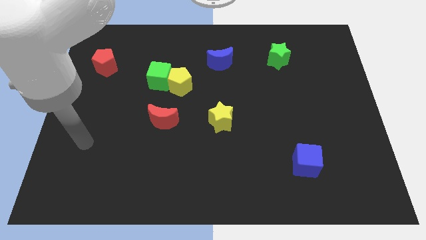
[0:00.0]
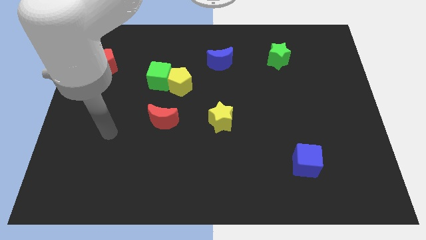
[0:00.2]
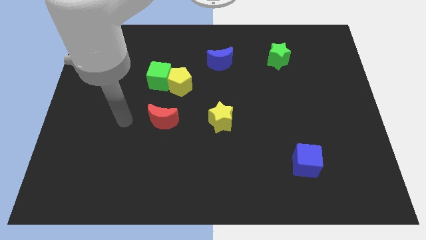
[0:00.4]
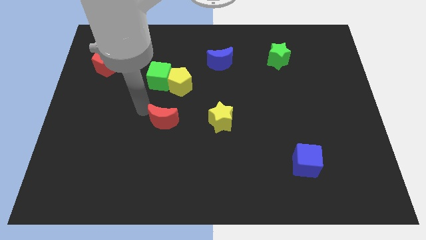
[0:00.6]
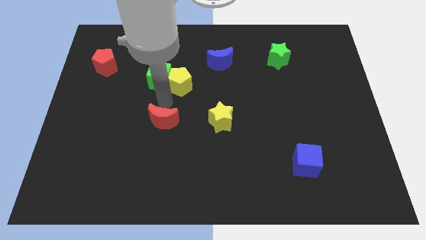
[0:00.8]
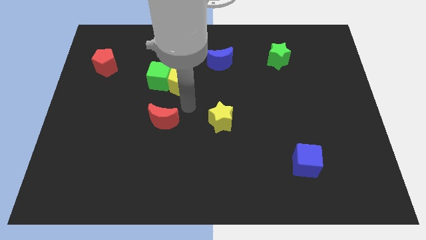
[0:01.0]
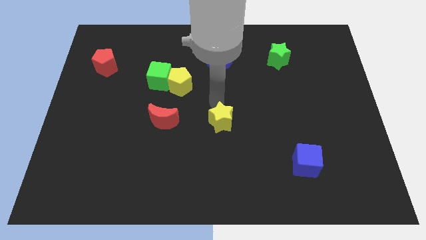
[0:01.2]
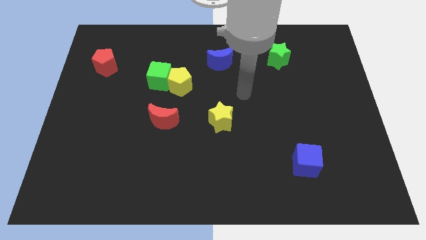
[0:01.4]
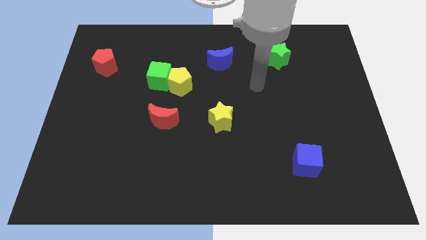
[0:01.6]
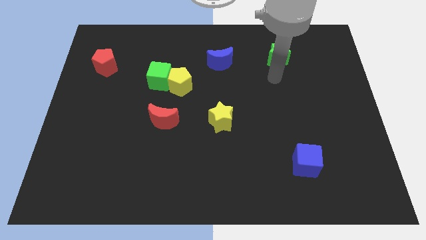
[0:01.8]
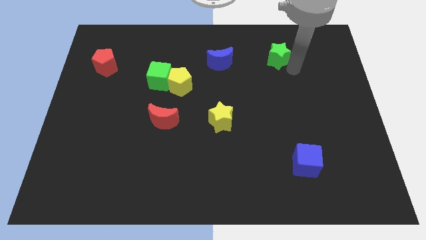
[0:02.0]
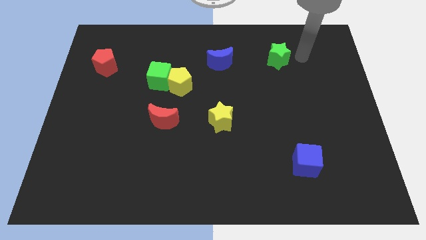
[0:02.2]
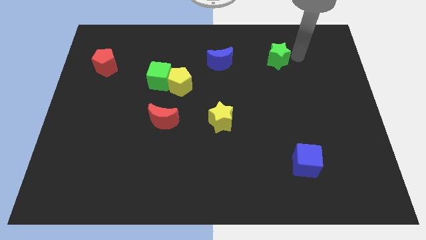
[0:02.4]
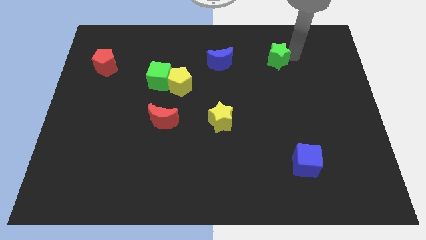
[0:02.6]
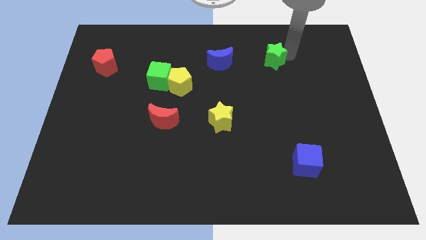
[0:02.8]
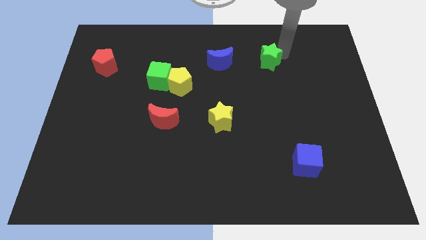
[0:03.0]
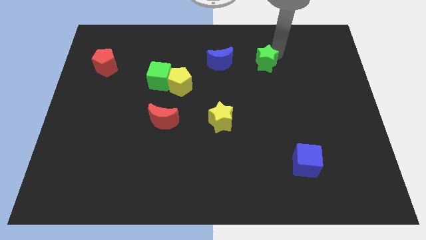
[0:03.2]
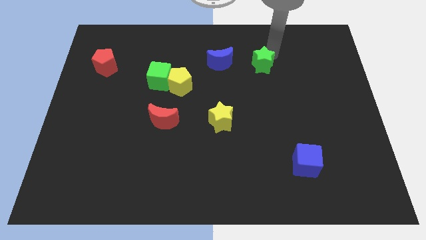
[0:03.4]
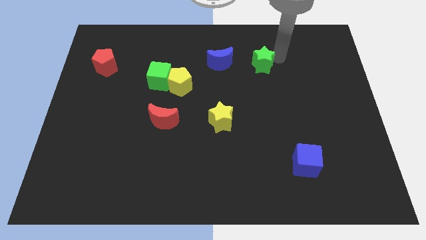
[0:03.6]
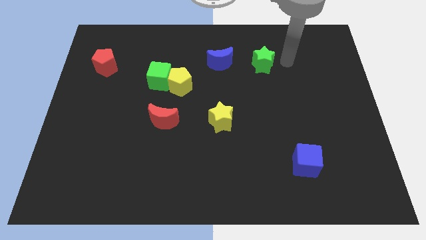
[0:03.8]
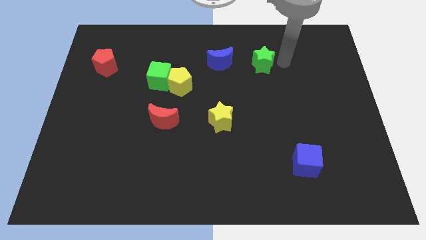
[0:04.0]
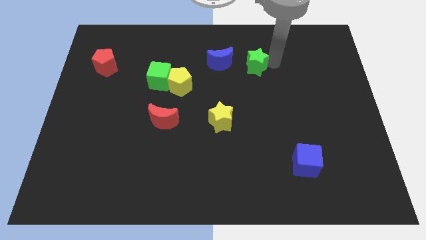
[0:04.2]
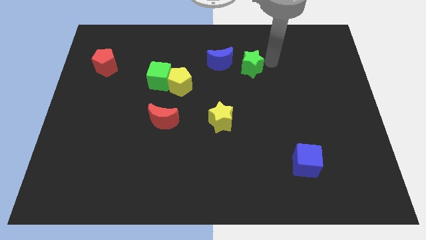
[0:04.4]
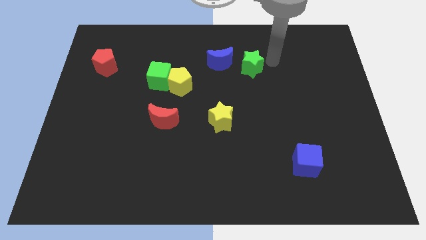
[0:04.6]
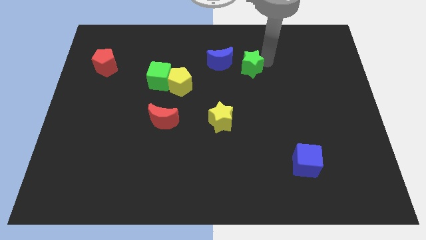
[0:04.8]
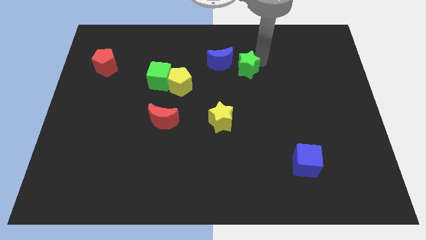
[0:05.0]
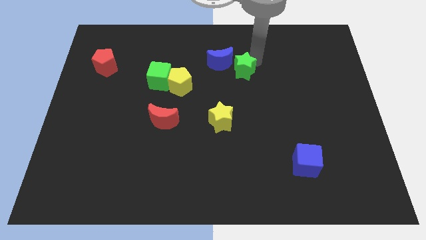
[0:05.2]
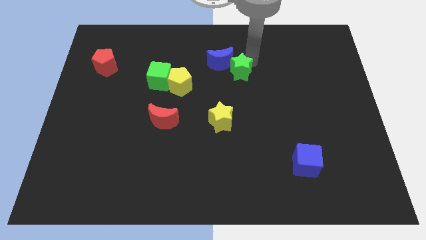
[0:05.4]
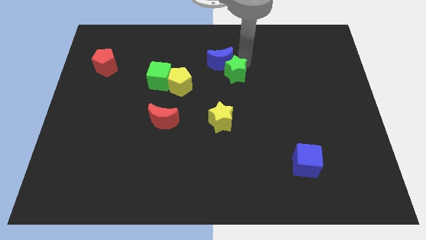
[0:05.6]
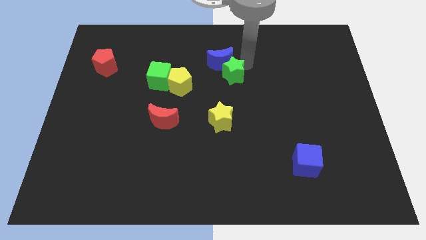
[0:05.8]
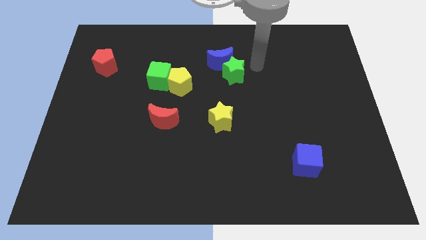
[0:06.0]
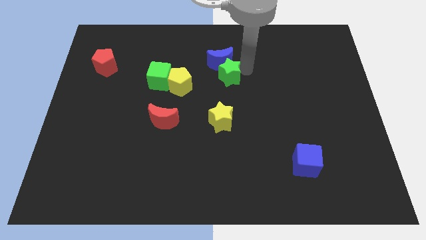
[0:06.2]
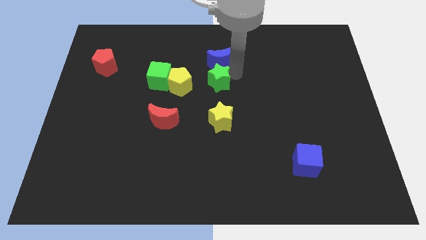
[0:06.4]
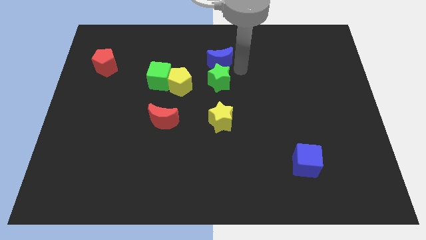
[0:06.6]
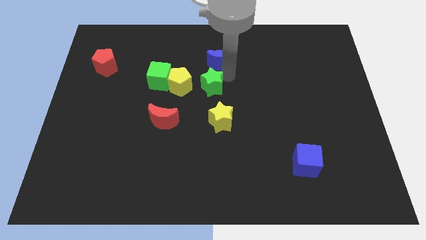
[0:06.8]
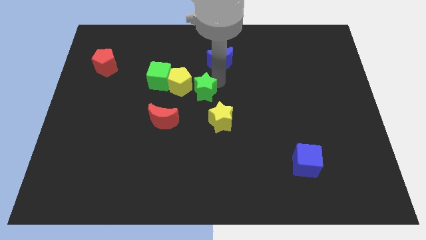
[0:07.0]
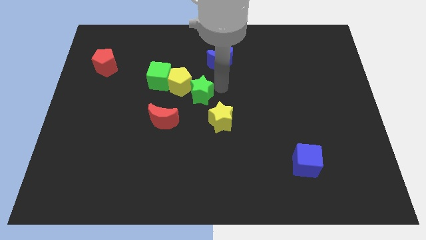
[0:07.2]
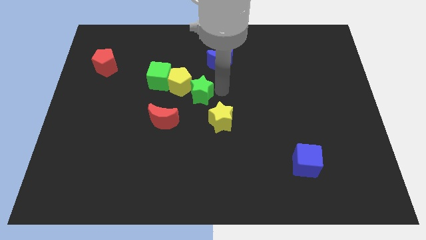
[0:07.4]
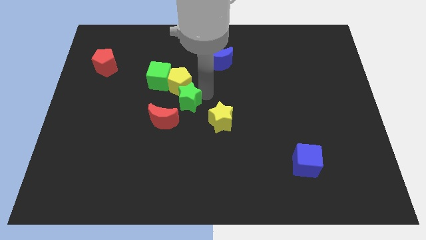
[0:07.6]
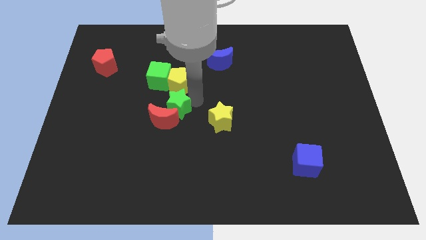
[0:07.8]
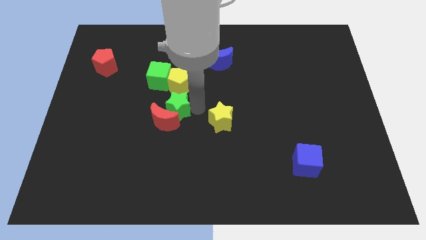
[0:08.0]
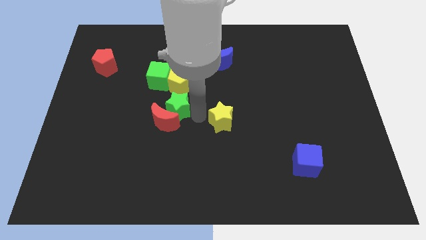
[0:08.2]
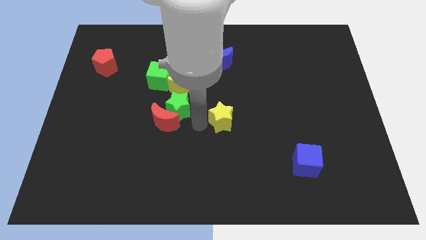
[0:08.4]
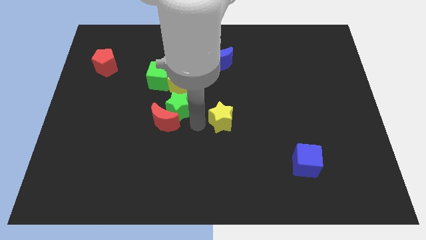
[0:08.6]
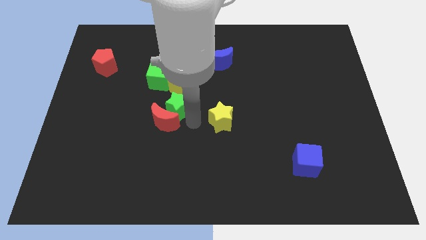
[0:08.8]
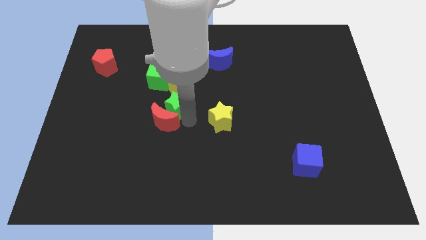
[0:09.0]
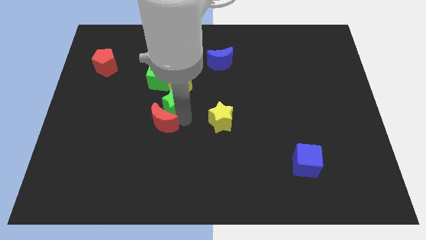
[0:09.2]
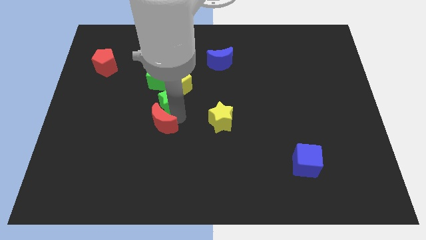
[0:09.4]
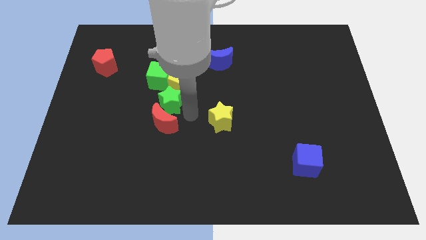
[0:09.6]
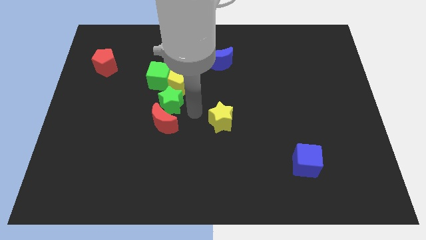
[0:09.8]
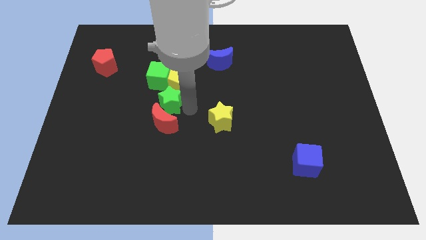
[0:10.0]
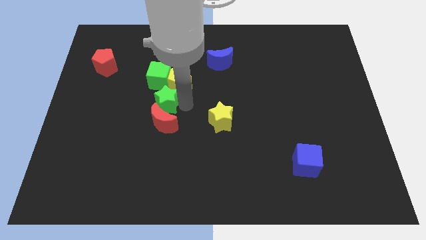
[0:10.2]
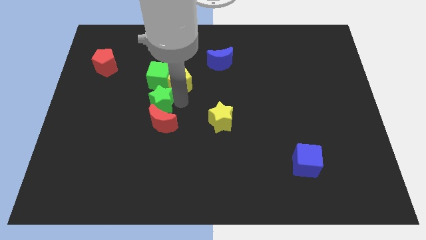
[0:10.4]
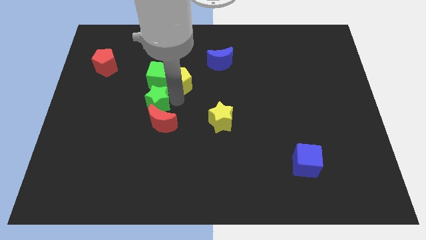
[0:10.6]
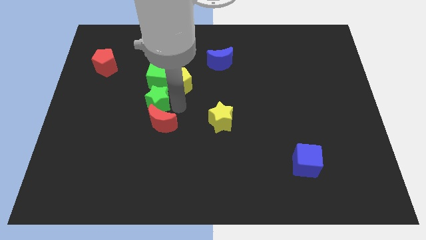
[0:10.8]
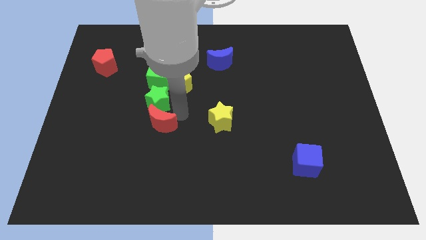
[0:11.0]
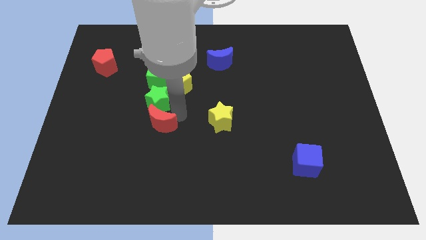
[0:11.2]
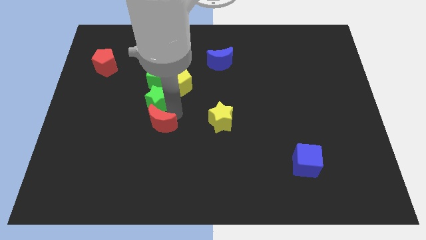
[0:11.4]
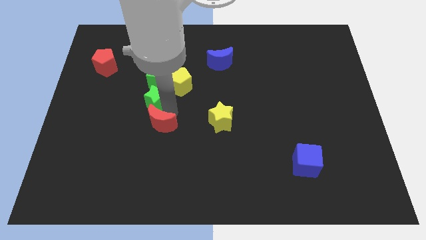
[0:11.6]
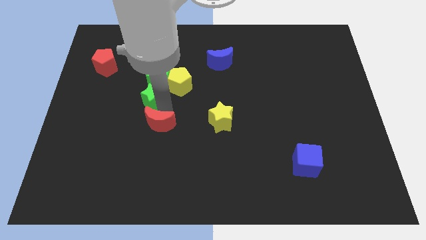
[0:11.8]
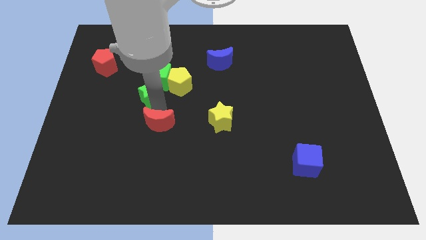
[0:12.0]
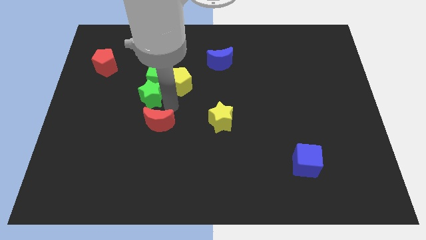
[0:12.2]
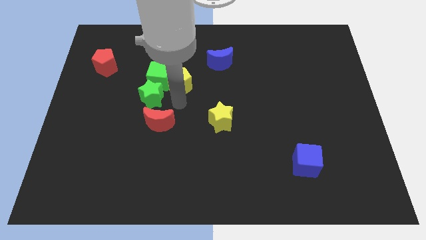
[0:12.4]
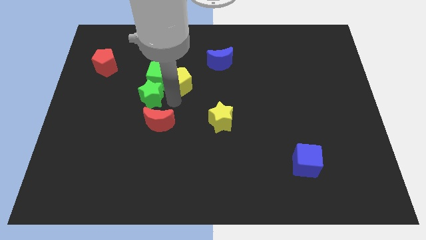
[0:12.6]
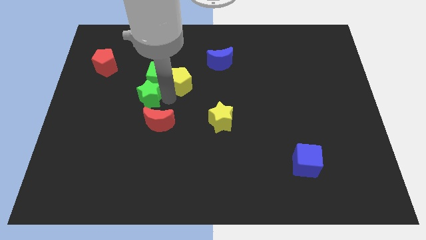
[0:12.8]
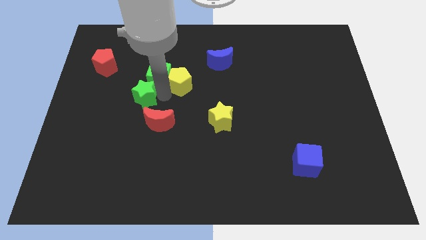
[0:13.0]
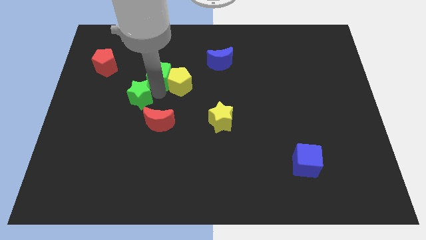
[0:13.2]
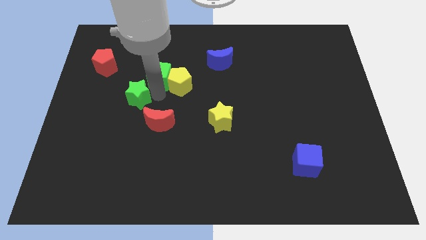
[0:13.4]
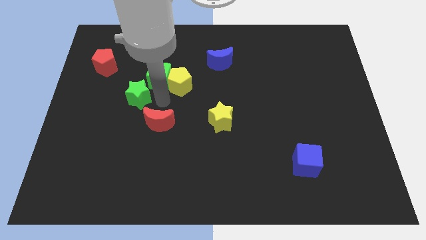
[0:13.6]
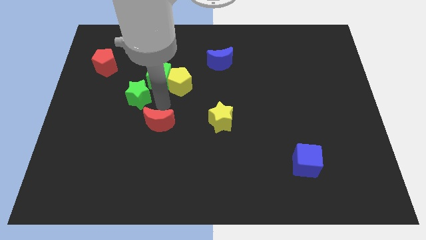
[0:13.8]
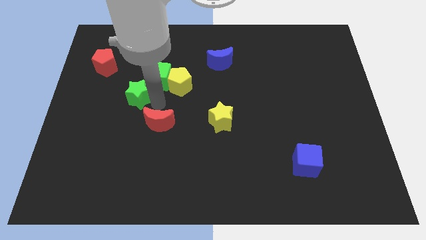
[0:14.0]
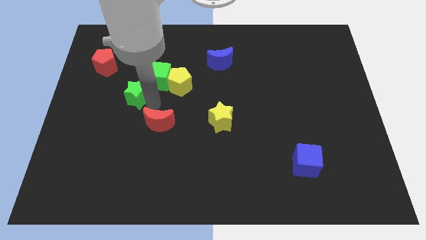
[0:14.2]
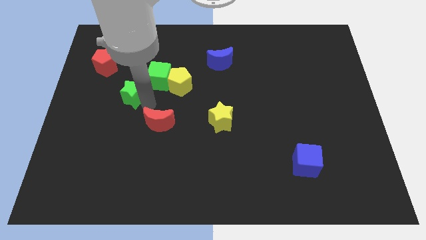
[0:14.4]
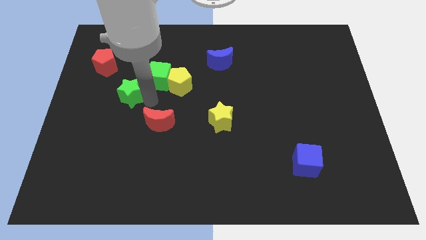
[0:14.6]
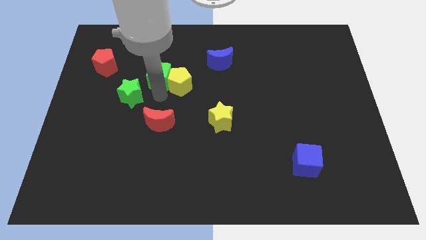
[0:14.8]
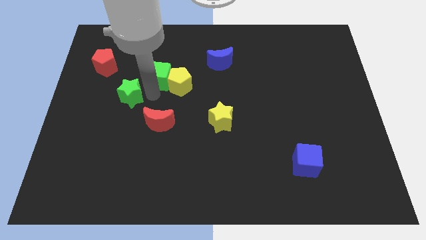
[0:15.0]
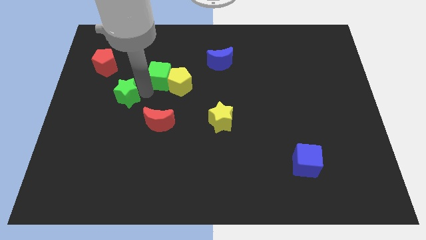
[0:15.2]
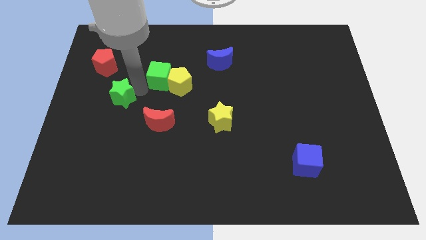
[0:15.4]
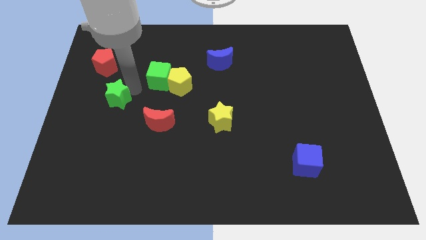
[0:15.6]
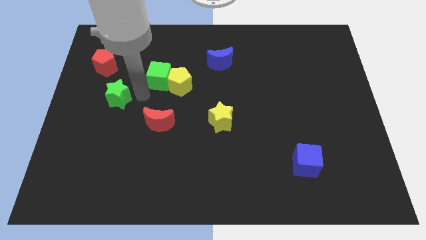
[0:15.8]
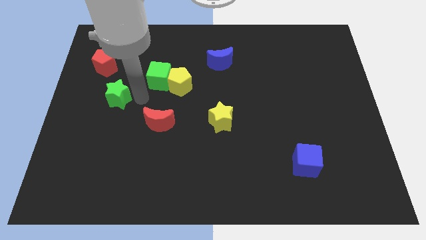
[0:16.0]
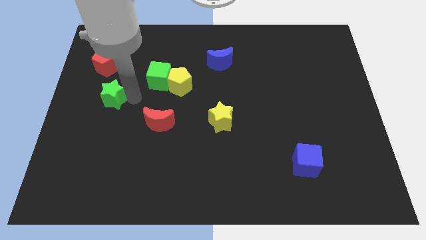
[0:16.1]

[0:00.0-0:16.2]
push the green star below the red pentagon
